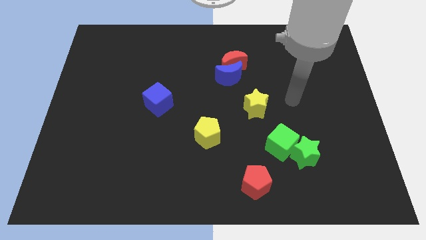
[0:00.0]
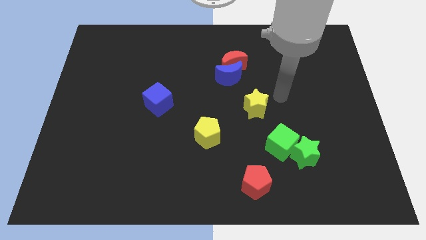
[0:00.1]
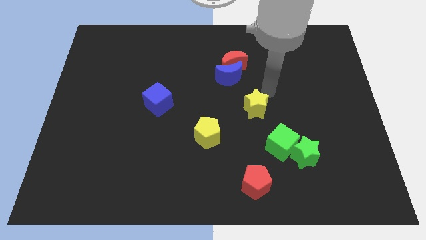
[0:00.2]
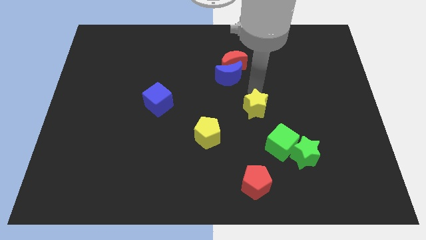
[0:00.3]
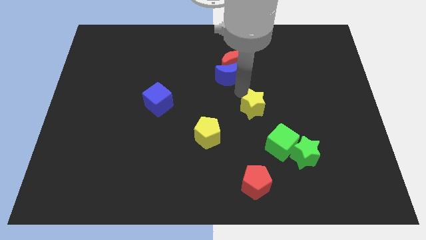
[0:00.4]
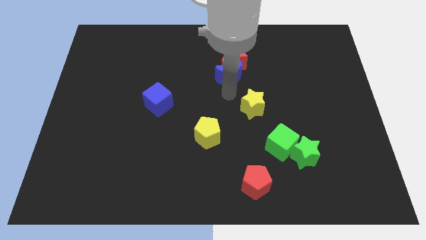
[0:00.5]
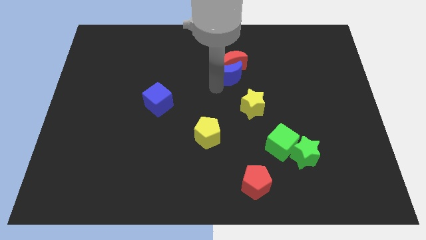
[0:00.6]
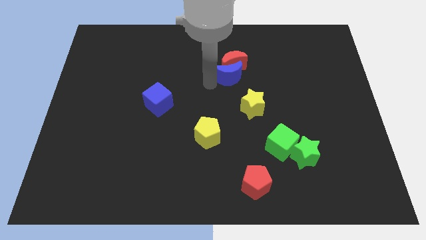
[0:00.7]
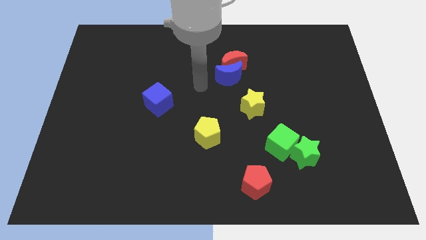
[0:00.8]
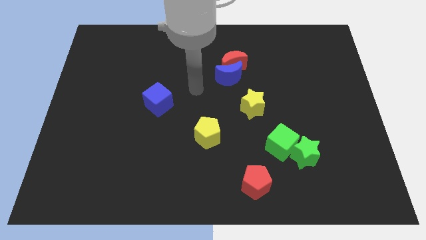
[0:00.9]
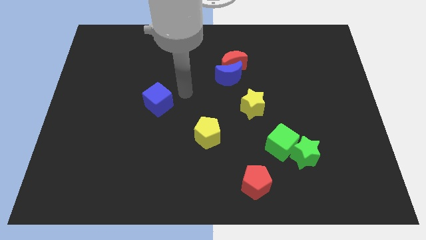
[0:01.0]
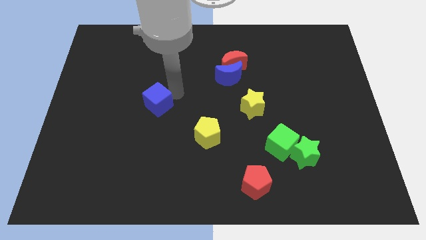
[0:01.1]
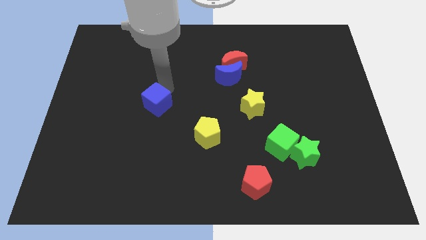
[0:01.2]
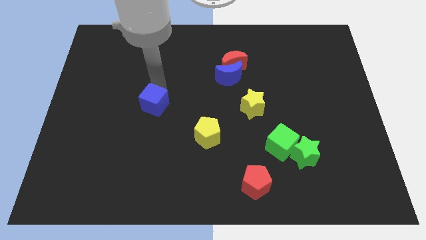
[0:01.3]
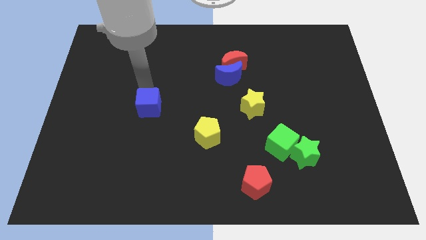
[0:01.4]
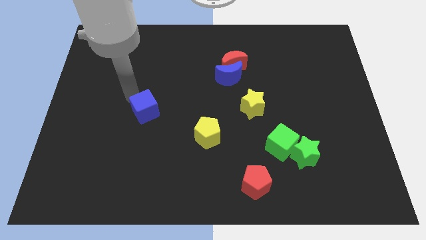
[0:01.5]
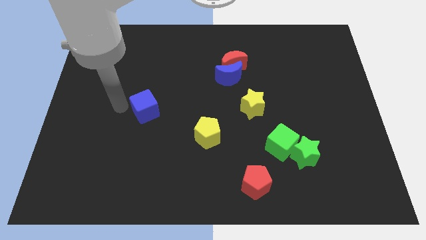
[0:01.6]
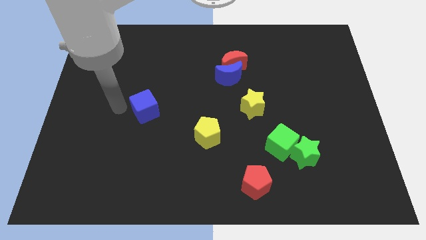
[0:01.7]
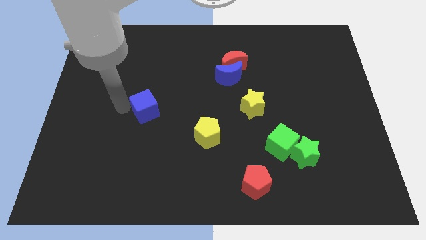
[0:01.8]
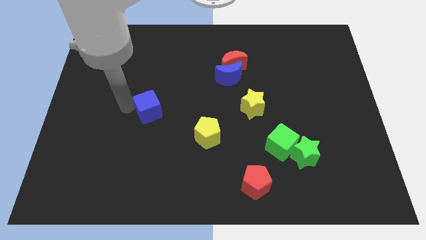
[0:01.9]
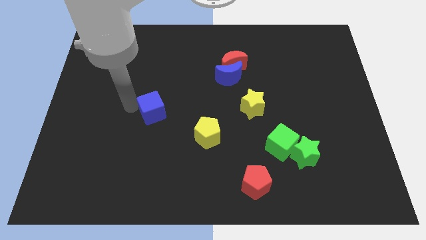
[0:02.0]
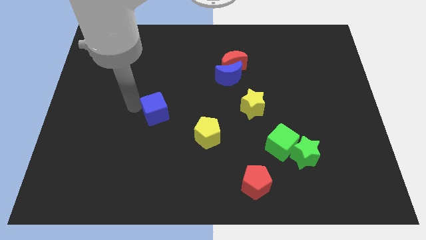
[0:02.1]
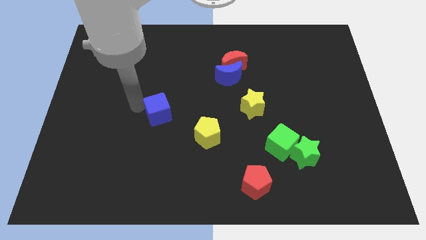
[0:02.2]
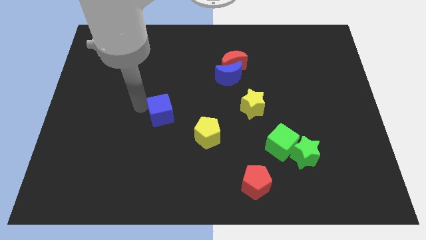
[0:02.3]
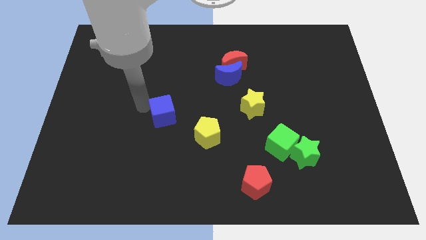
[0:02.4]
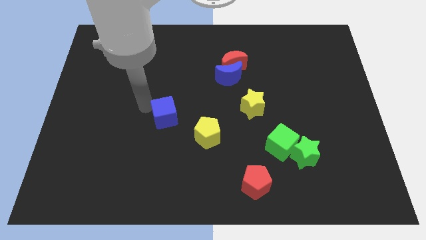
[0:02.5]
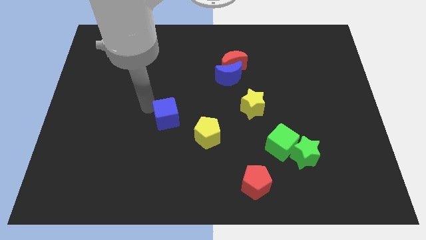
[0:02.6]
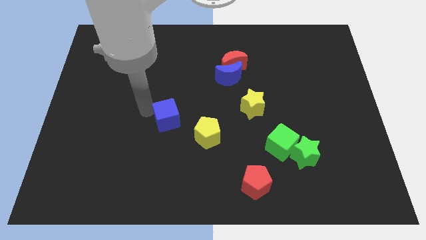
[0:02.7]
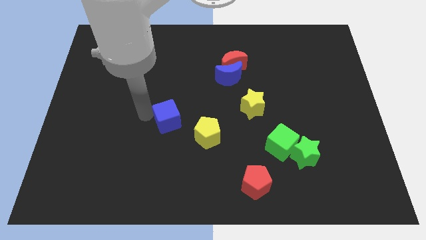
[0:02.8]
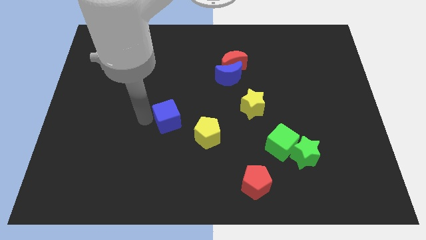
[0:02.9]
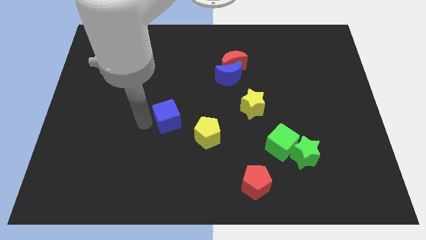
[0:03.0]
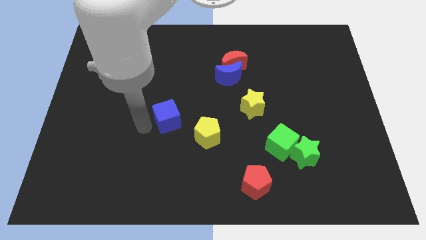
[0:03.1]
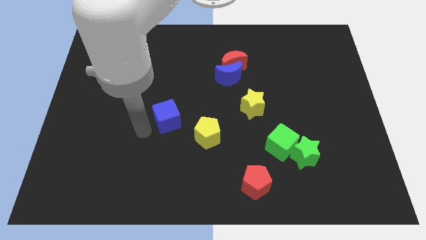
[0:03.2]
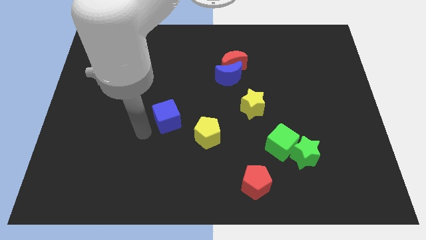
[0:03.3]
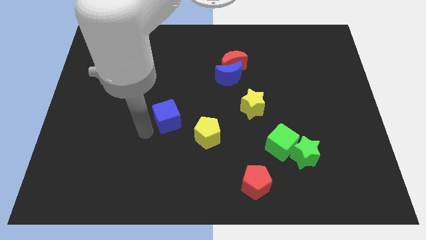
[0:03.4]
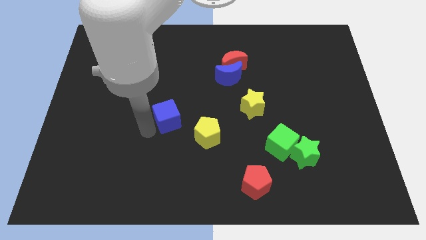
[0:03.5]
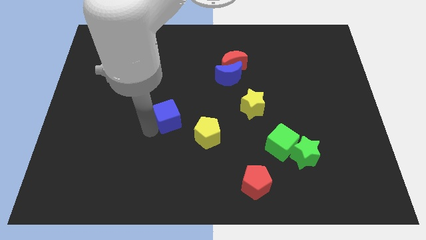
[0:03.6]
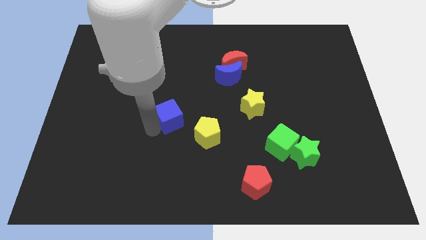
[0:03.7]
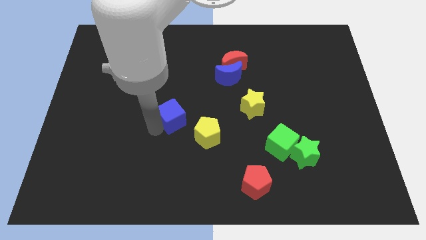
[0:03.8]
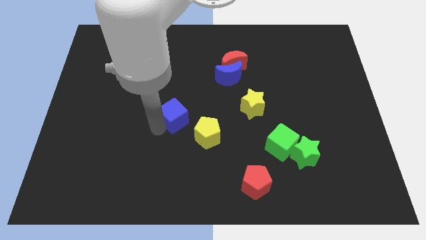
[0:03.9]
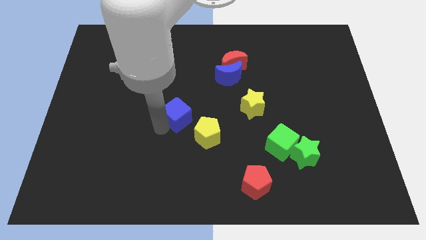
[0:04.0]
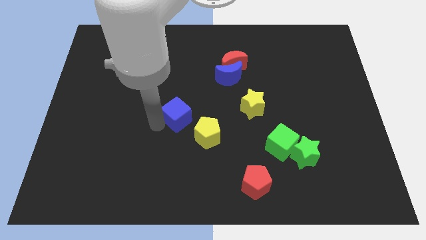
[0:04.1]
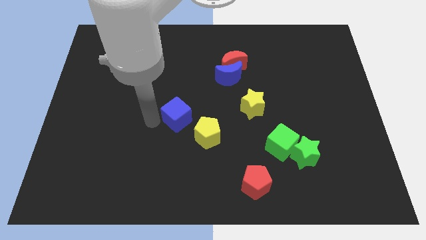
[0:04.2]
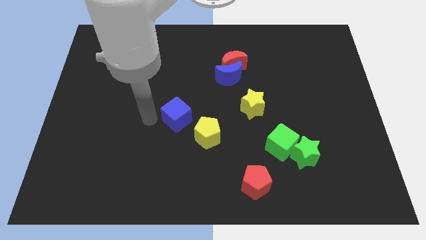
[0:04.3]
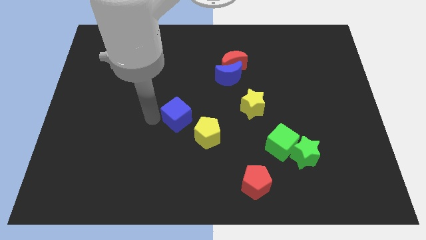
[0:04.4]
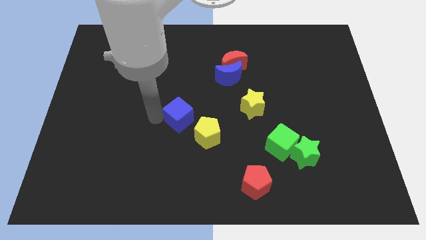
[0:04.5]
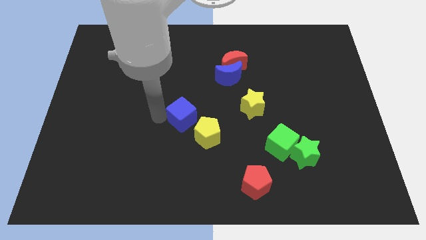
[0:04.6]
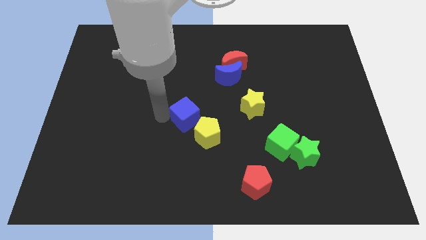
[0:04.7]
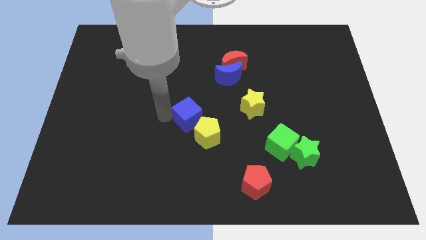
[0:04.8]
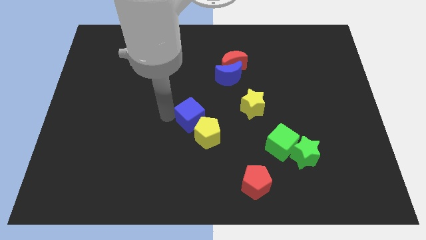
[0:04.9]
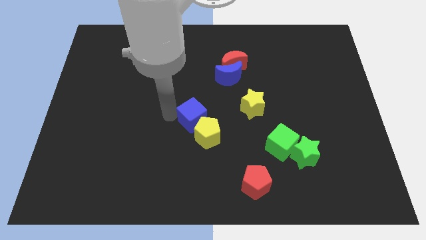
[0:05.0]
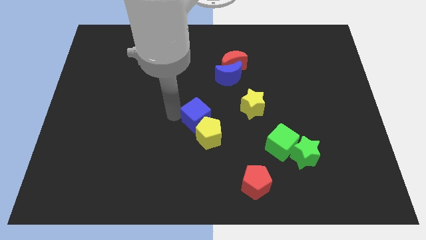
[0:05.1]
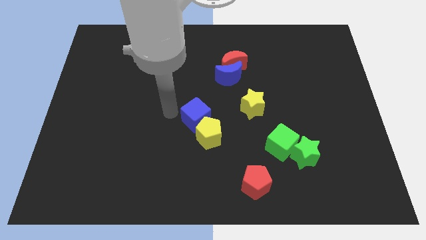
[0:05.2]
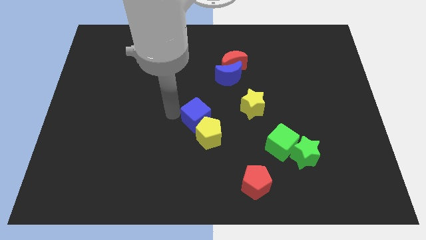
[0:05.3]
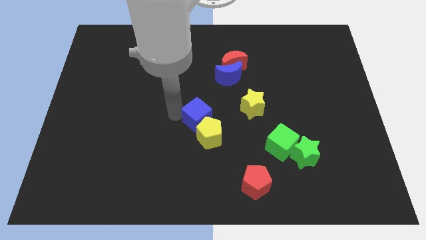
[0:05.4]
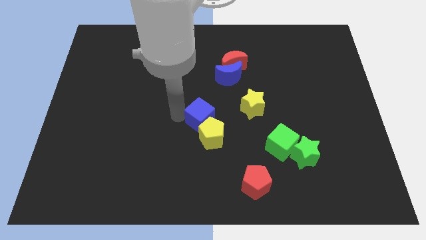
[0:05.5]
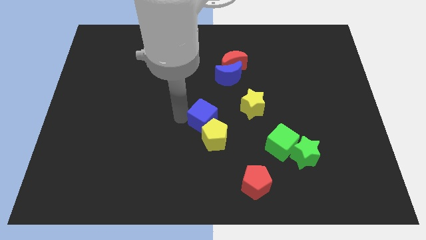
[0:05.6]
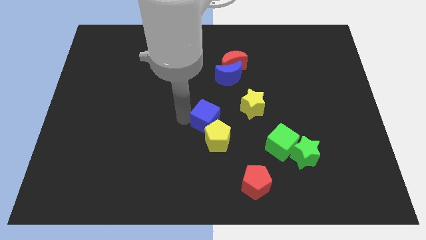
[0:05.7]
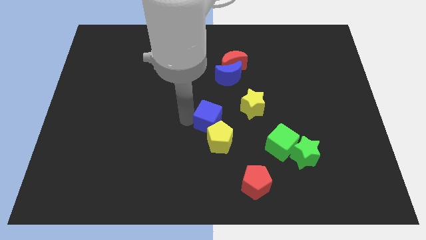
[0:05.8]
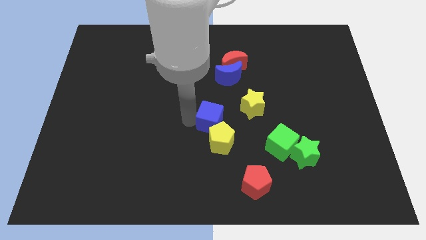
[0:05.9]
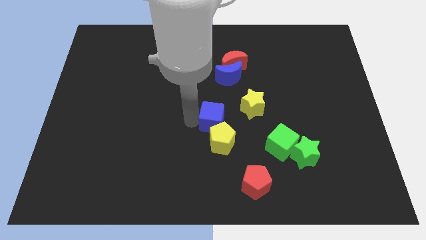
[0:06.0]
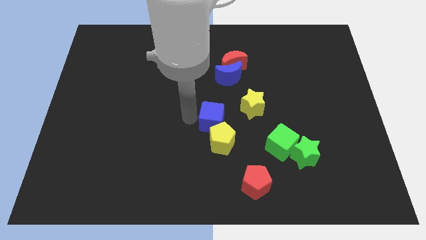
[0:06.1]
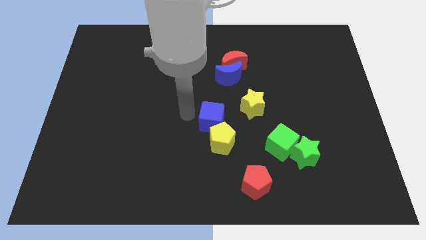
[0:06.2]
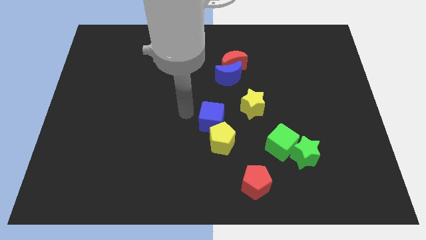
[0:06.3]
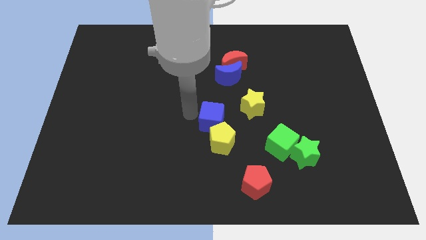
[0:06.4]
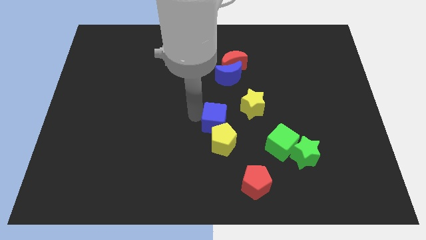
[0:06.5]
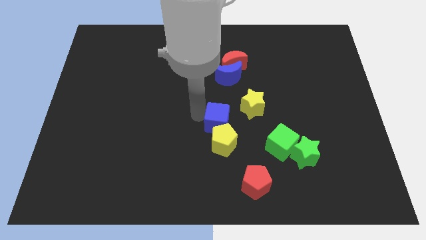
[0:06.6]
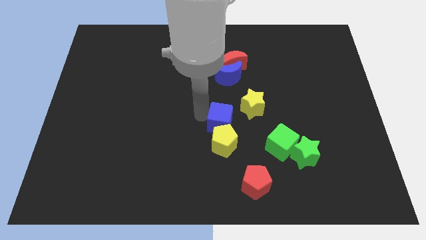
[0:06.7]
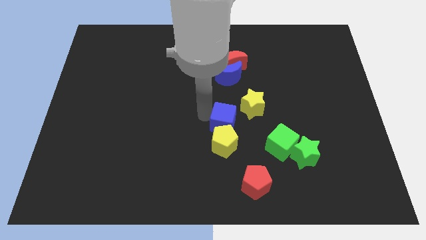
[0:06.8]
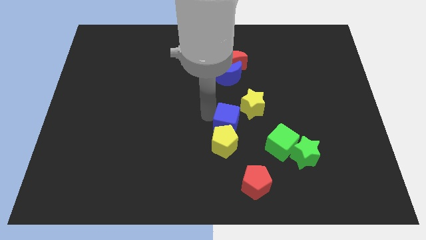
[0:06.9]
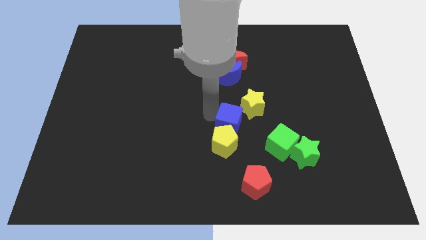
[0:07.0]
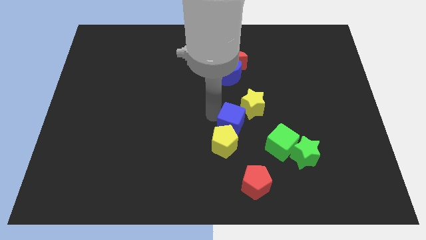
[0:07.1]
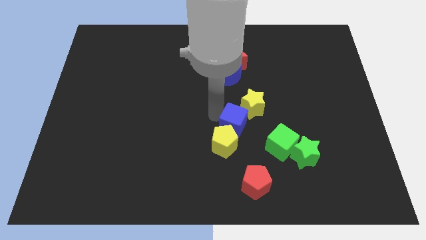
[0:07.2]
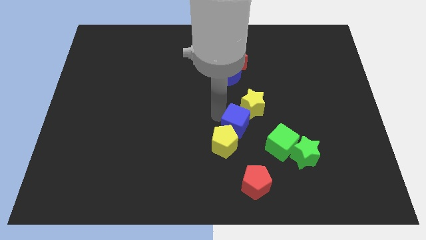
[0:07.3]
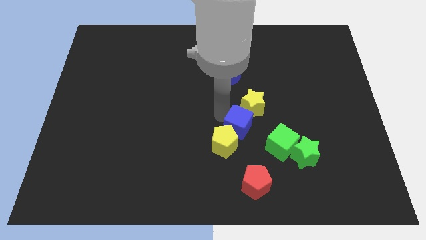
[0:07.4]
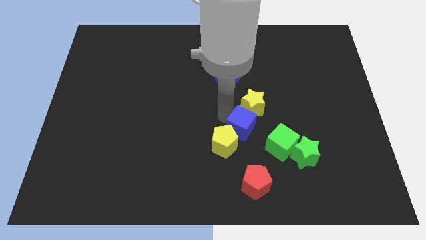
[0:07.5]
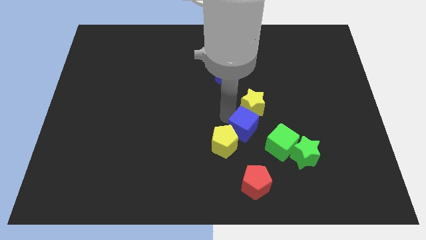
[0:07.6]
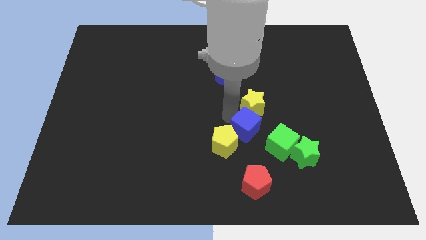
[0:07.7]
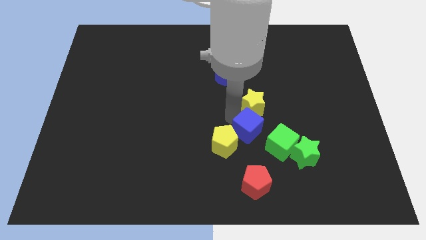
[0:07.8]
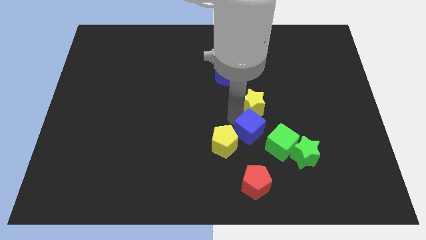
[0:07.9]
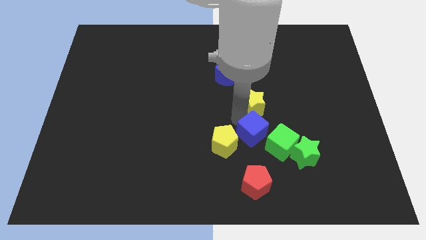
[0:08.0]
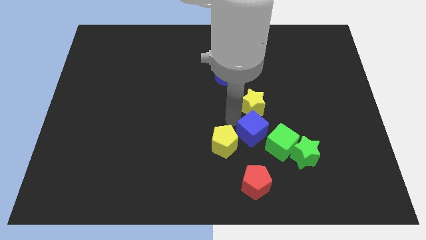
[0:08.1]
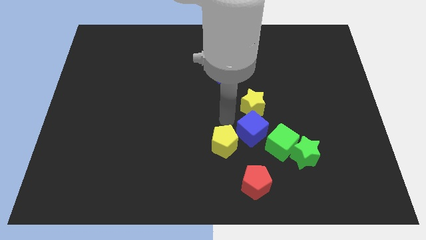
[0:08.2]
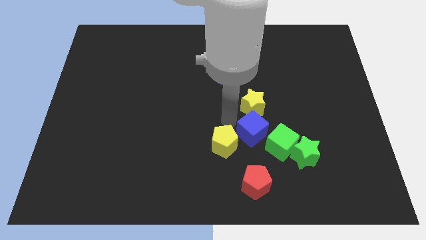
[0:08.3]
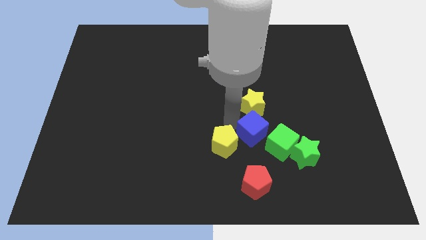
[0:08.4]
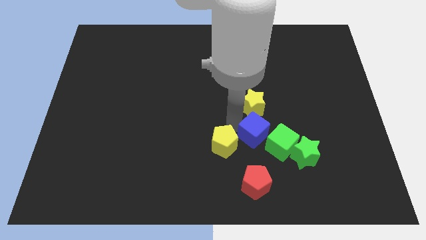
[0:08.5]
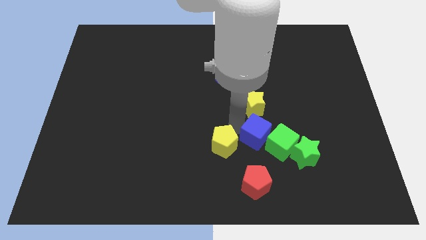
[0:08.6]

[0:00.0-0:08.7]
move the blue cube next to the green cube
